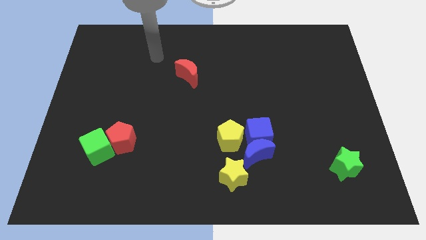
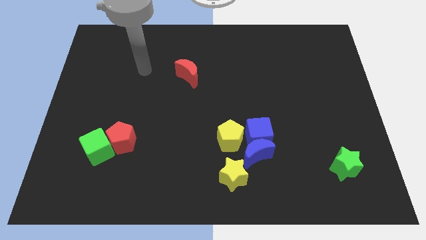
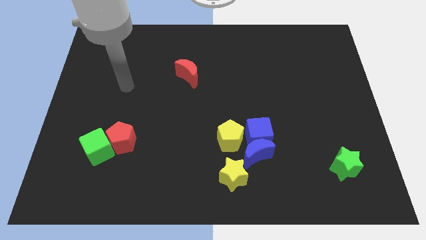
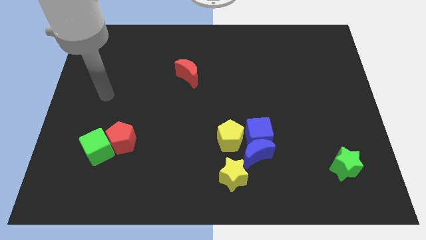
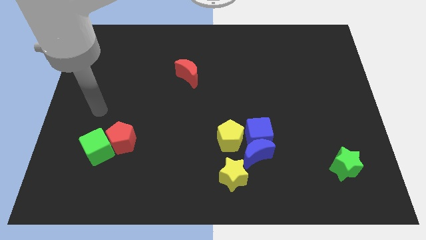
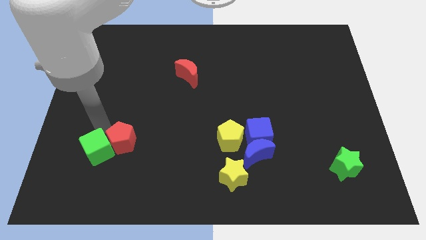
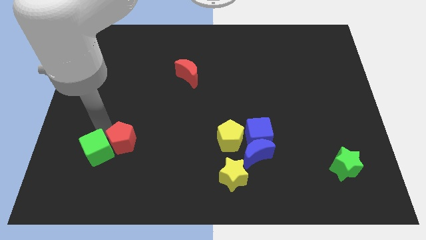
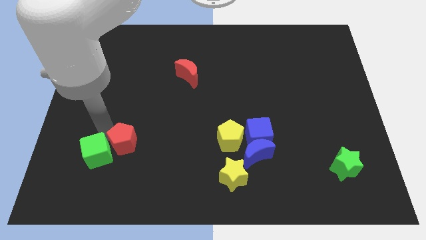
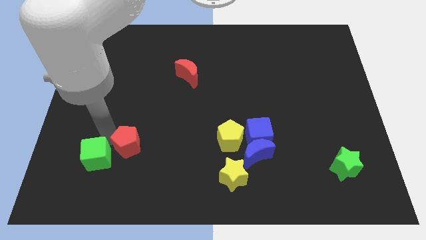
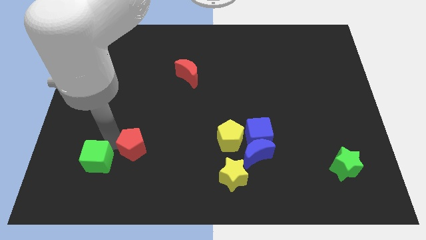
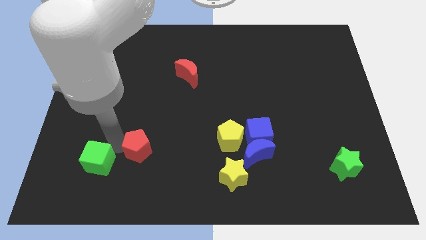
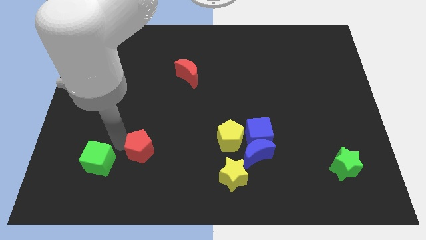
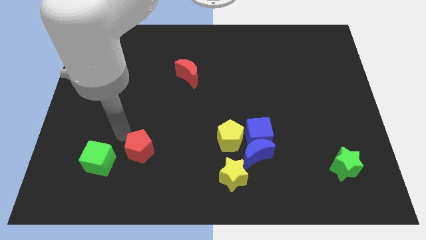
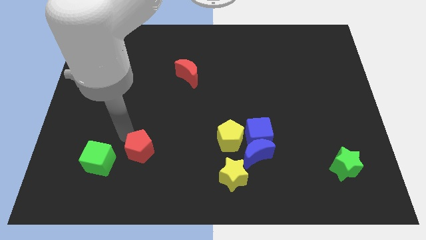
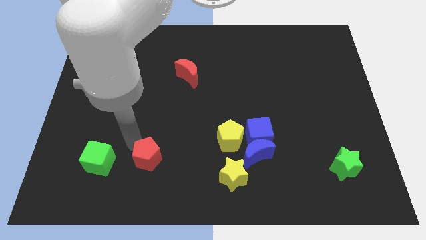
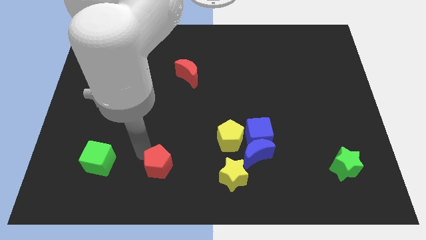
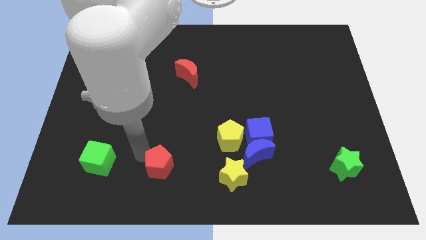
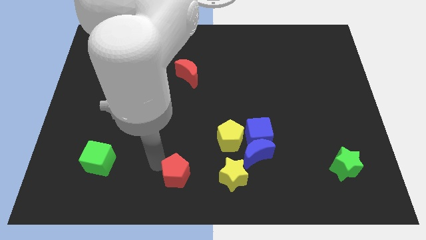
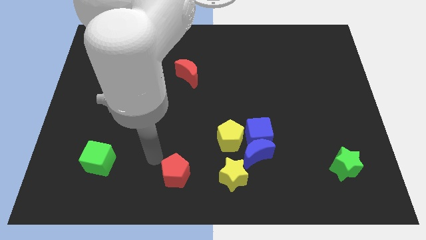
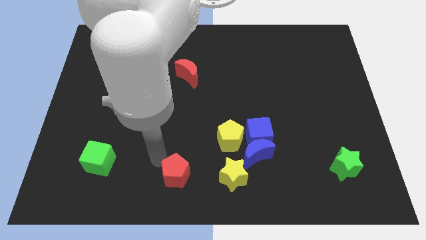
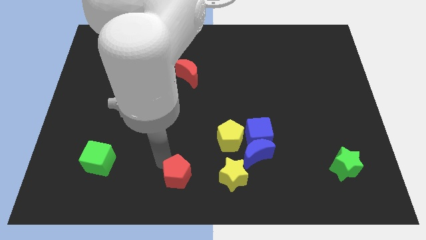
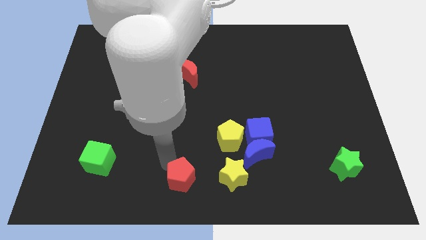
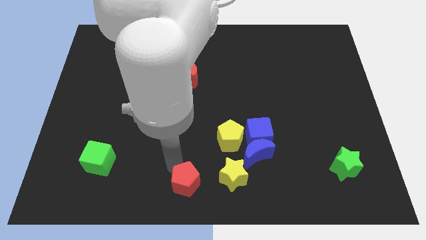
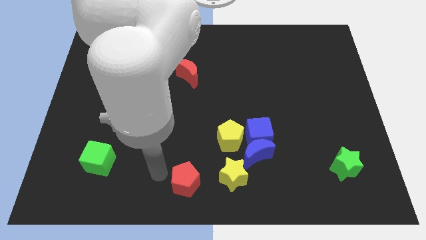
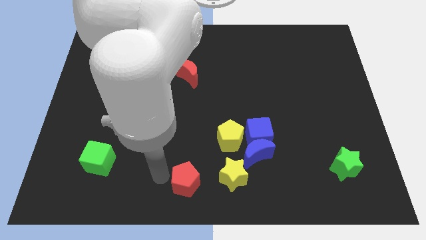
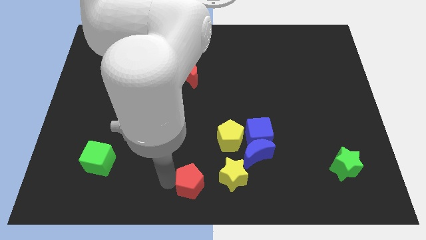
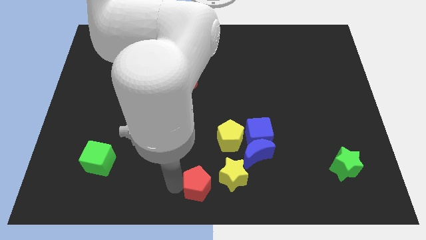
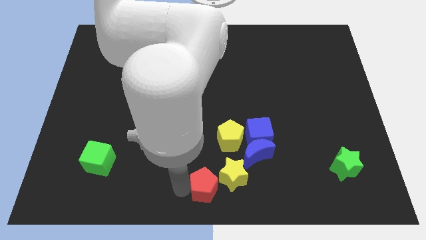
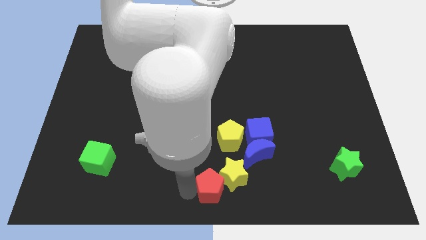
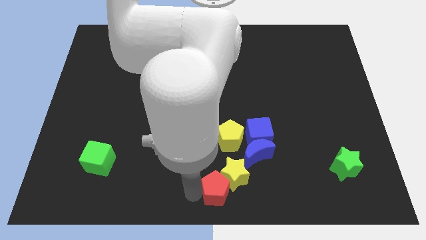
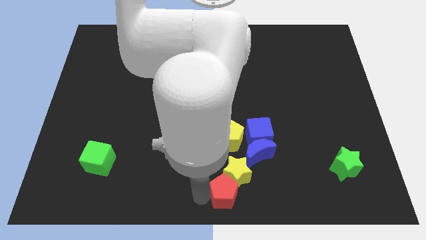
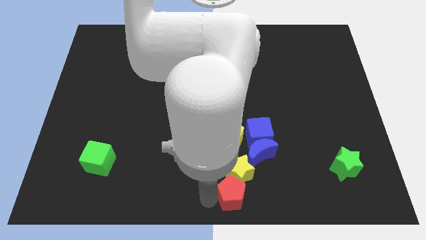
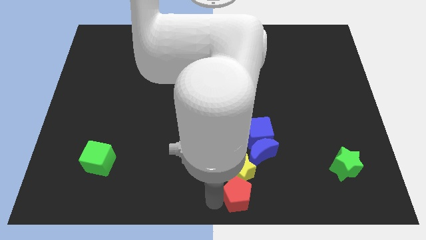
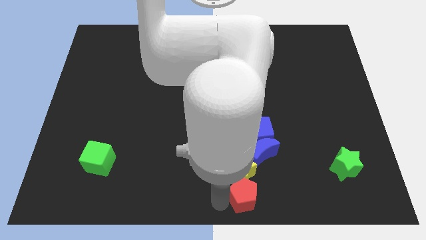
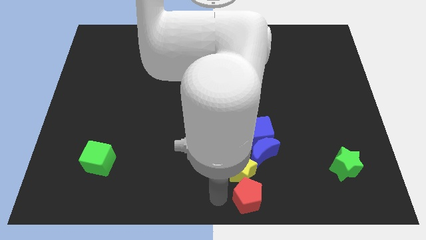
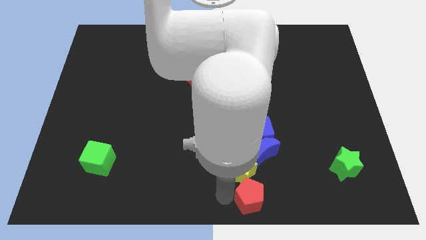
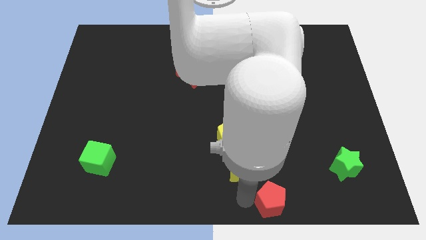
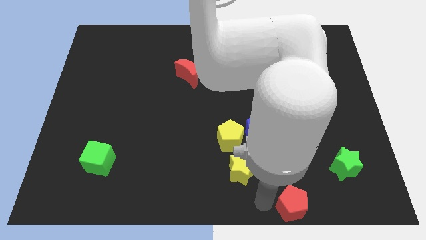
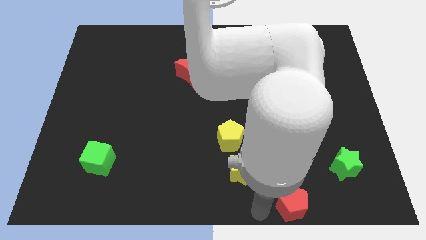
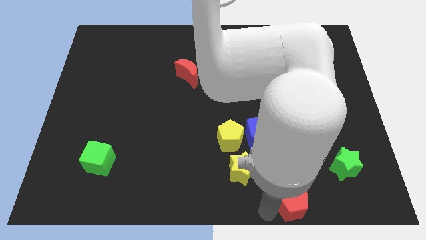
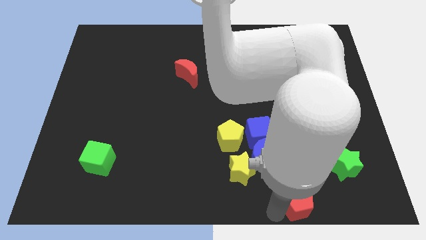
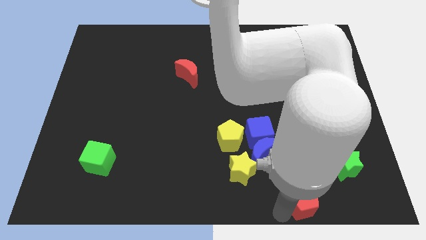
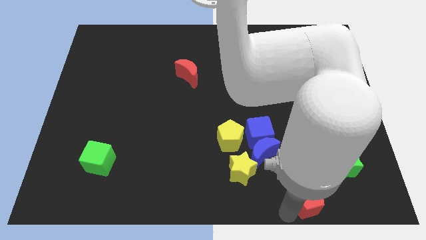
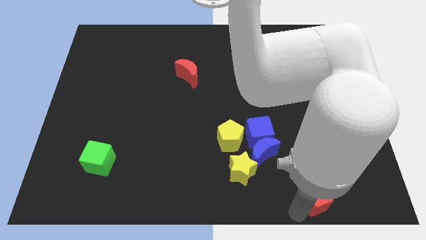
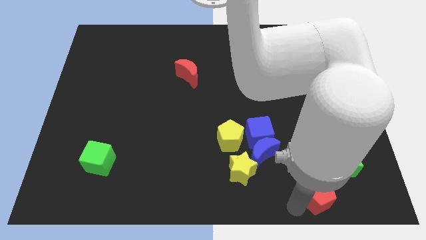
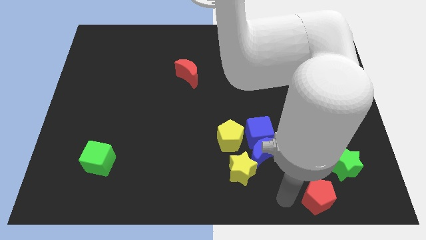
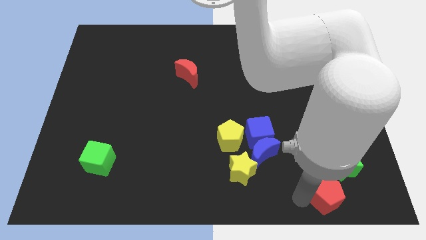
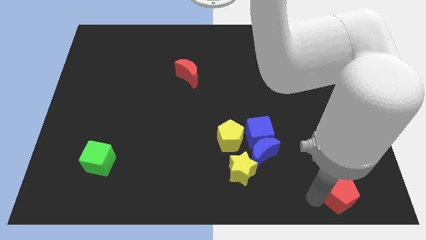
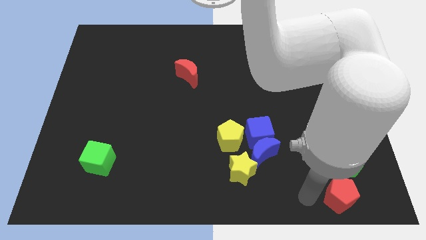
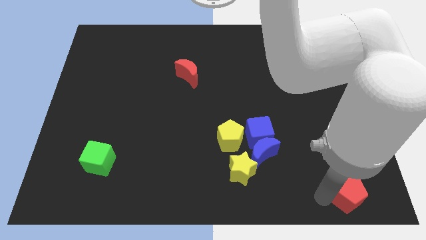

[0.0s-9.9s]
slide the red pentagon to the bottom right of the board

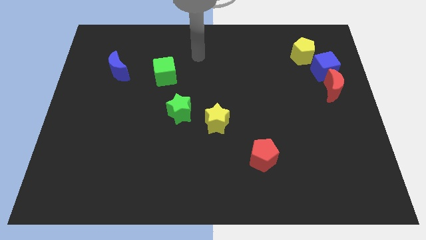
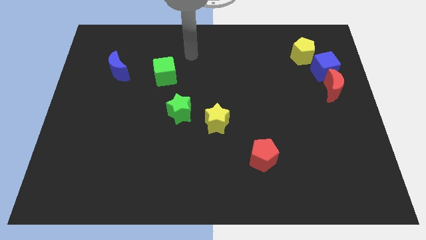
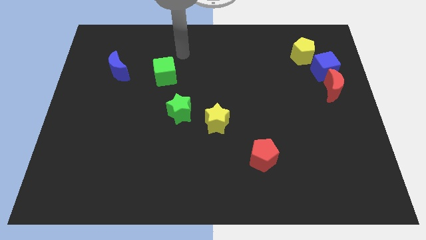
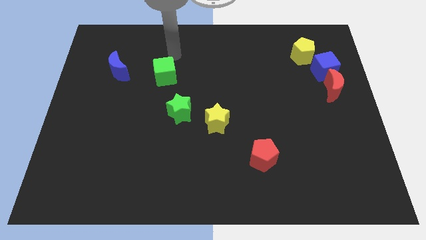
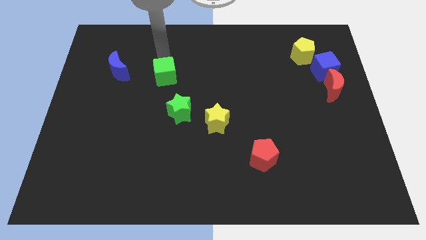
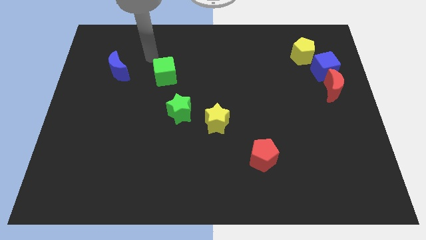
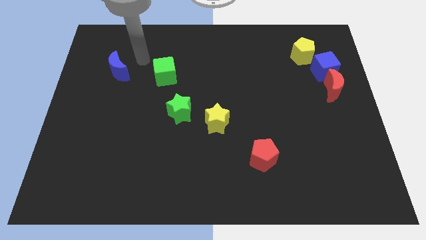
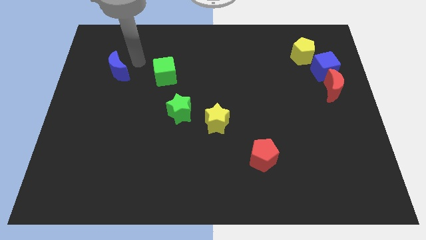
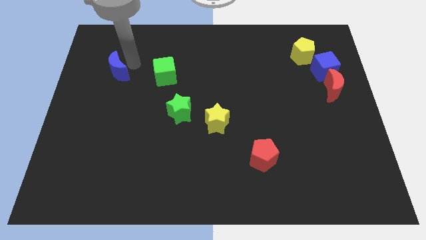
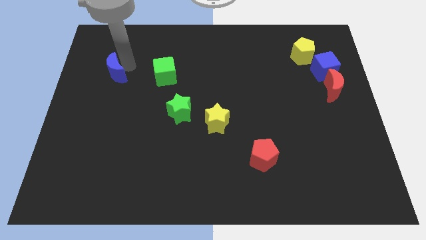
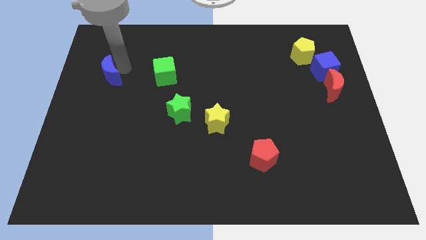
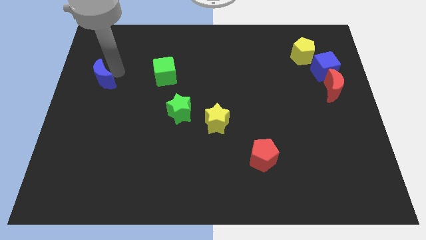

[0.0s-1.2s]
slide the blue moon to the left side
